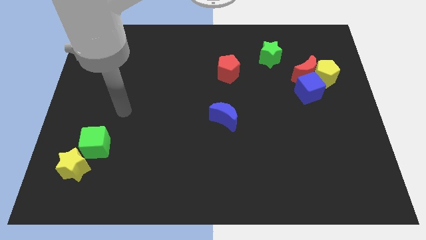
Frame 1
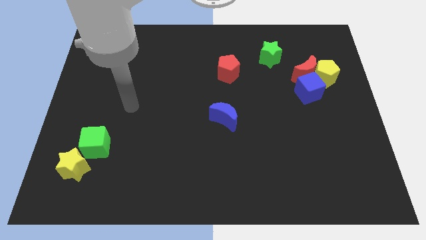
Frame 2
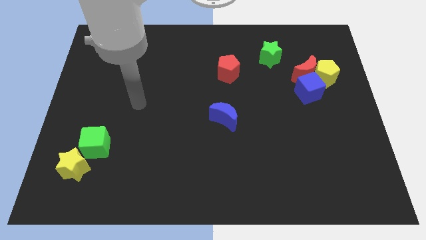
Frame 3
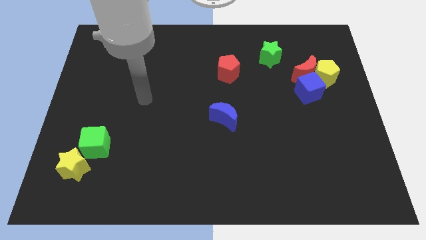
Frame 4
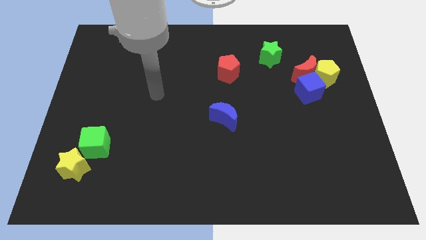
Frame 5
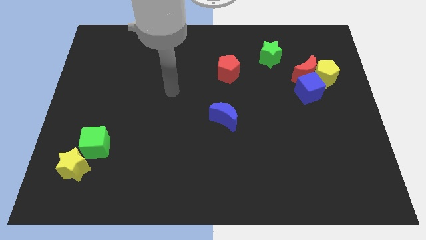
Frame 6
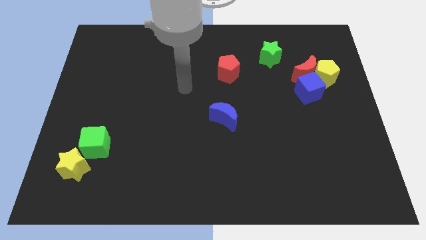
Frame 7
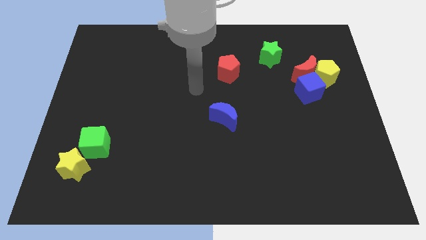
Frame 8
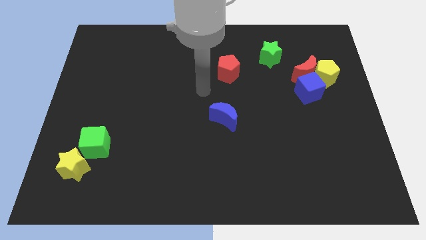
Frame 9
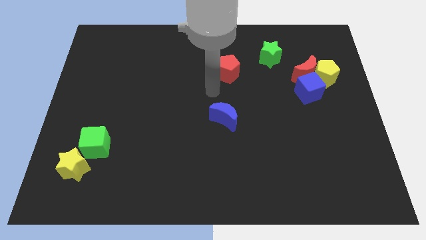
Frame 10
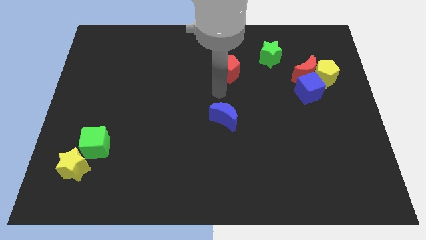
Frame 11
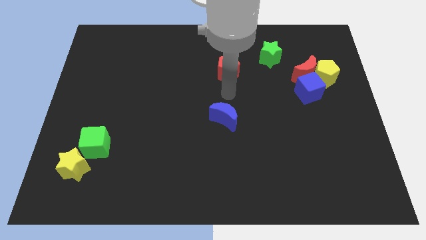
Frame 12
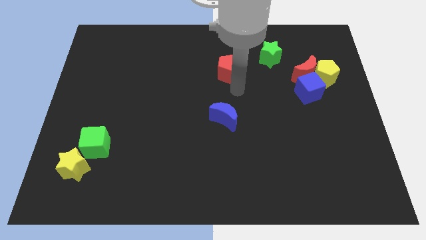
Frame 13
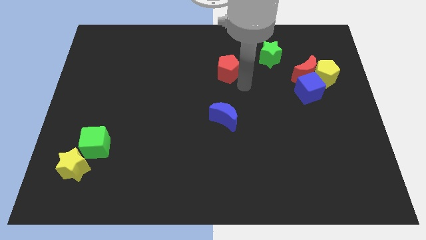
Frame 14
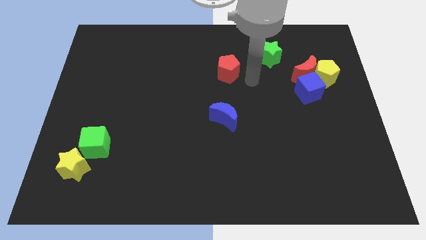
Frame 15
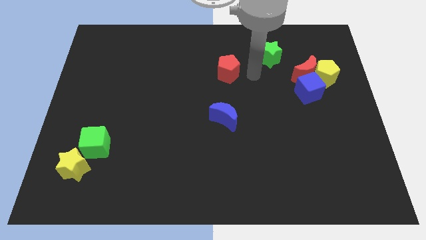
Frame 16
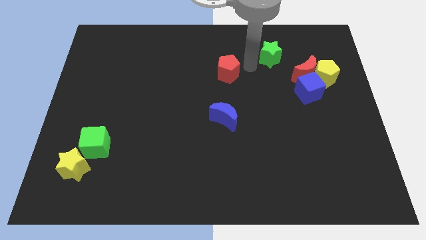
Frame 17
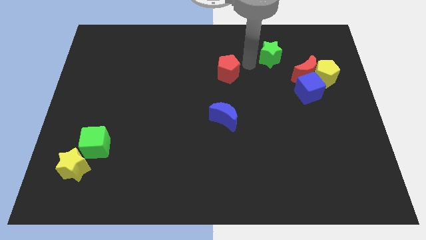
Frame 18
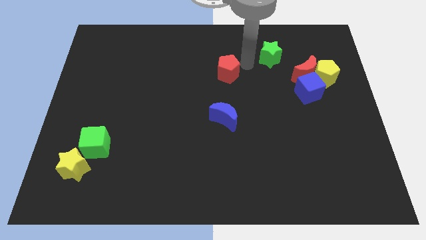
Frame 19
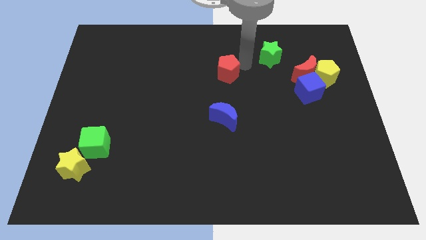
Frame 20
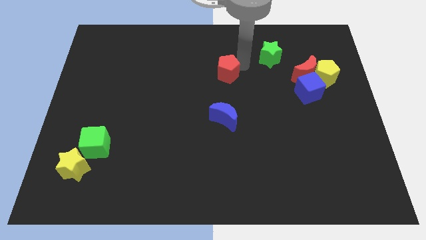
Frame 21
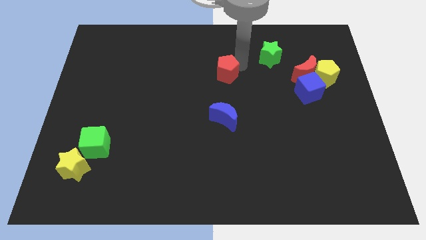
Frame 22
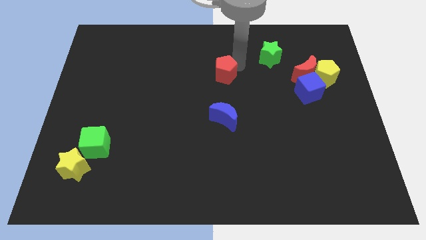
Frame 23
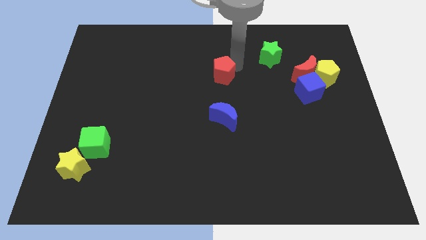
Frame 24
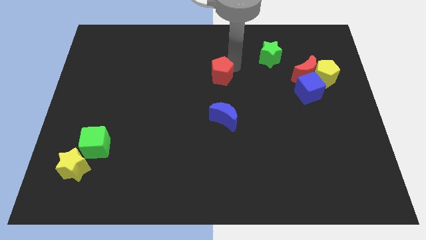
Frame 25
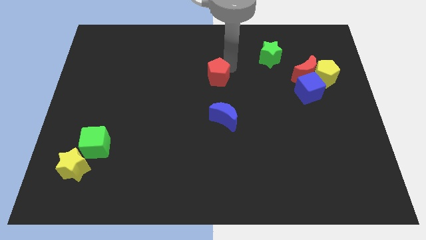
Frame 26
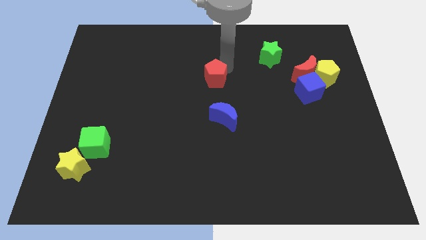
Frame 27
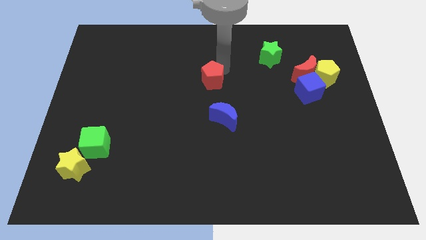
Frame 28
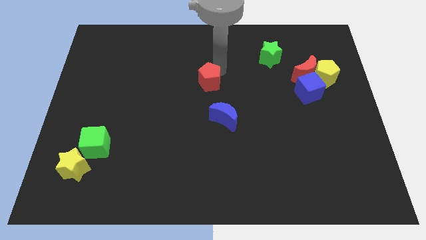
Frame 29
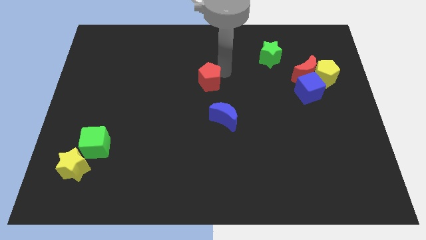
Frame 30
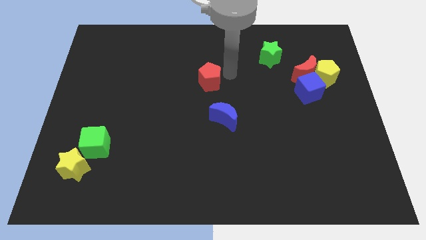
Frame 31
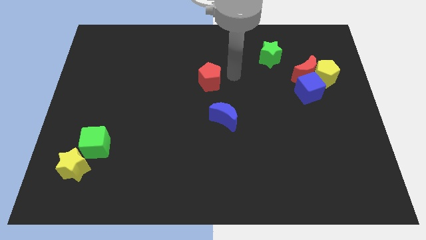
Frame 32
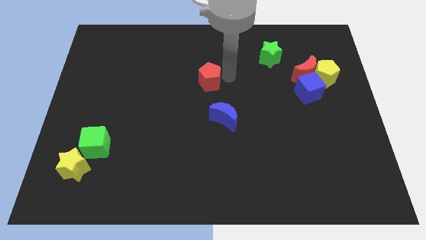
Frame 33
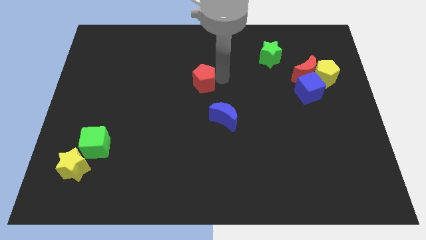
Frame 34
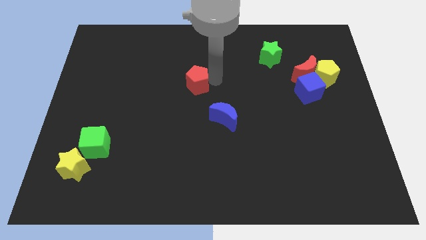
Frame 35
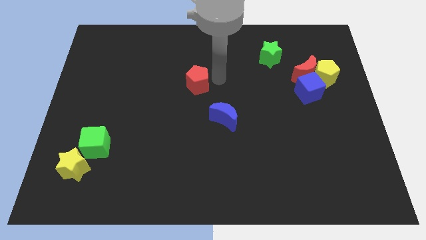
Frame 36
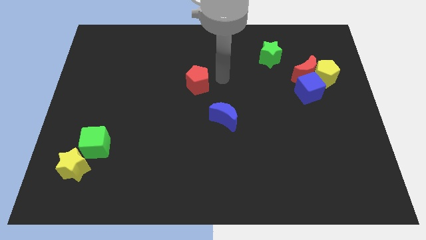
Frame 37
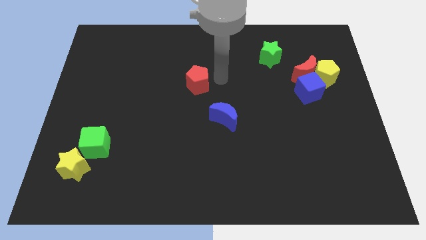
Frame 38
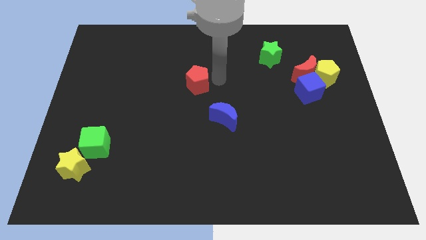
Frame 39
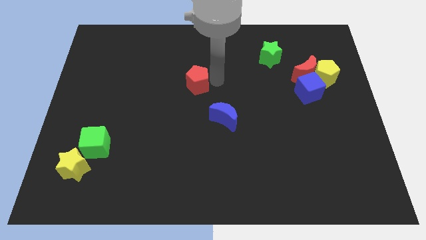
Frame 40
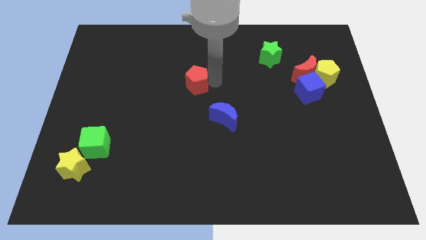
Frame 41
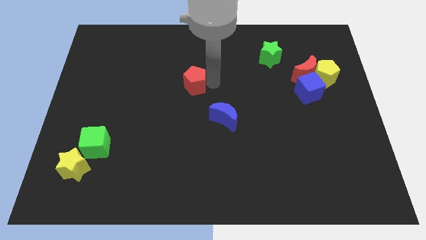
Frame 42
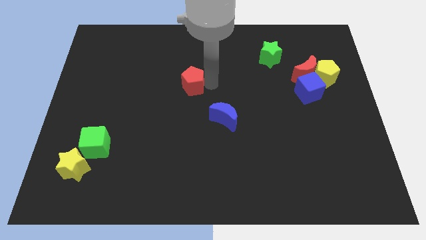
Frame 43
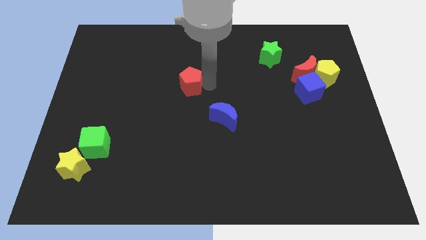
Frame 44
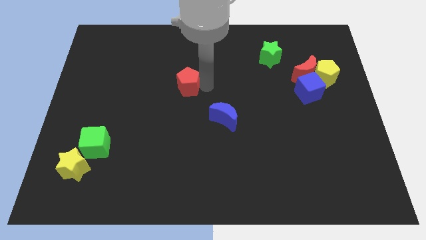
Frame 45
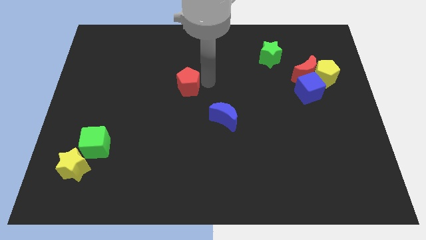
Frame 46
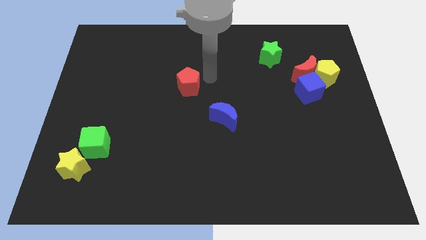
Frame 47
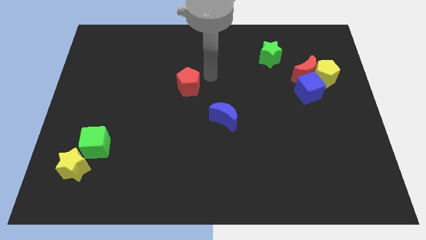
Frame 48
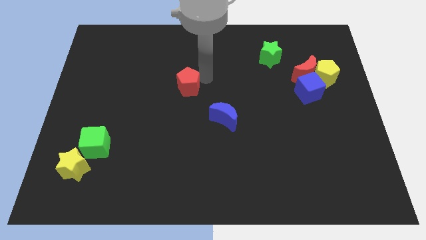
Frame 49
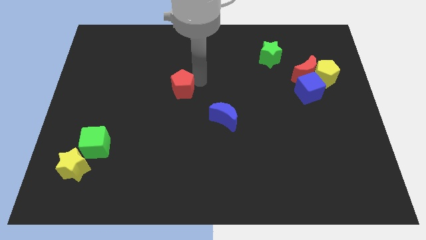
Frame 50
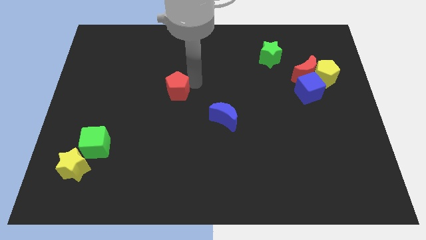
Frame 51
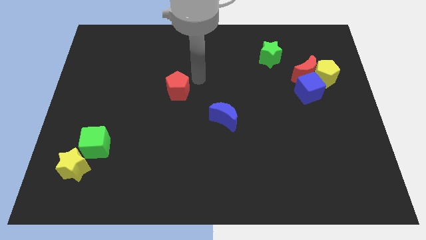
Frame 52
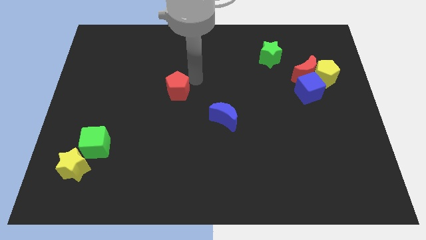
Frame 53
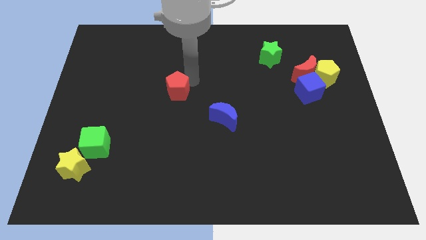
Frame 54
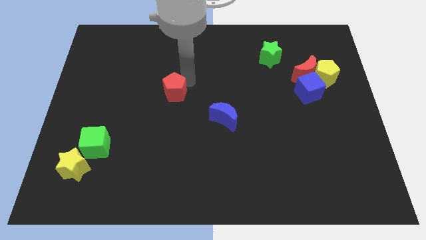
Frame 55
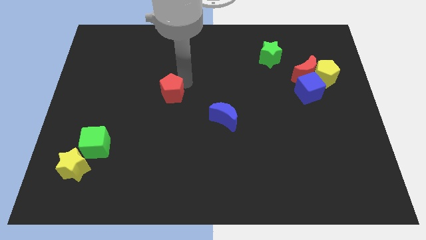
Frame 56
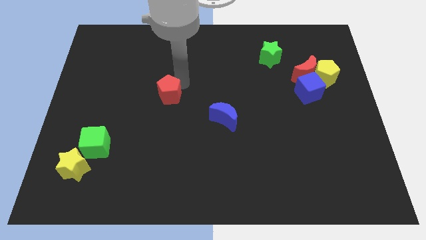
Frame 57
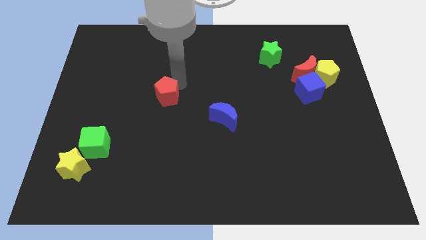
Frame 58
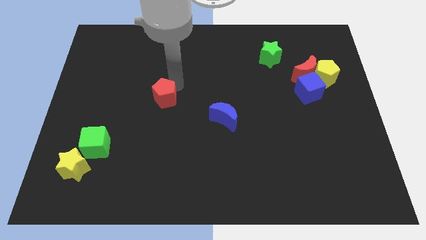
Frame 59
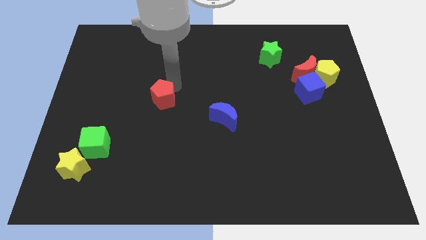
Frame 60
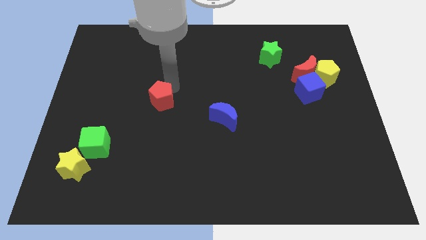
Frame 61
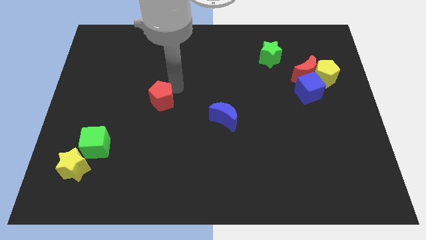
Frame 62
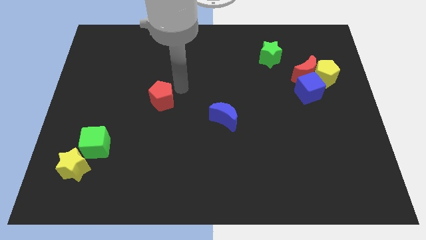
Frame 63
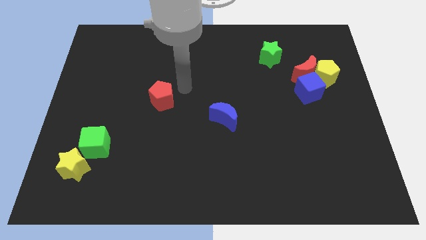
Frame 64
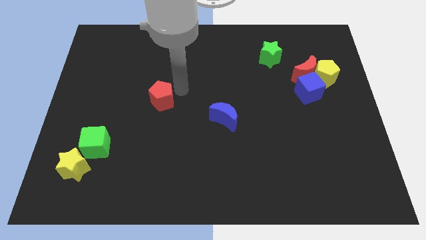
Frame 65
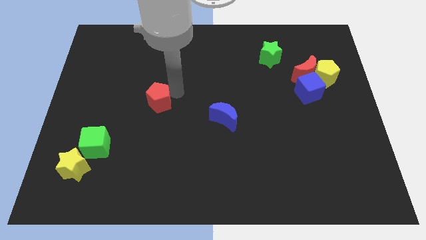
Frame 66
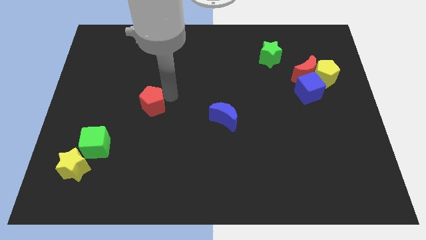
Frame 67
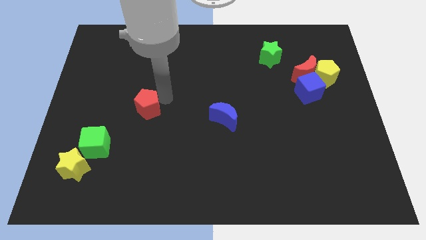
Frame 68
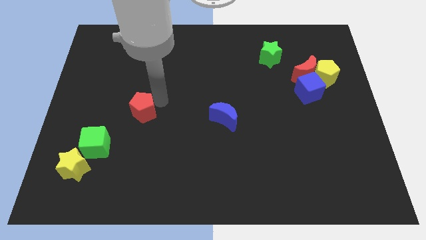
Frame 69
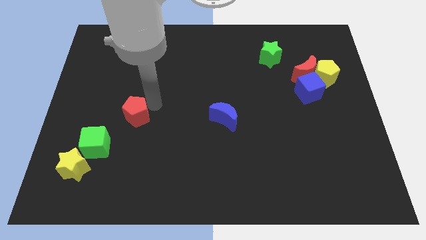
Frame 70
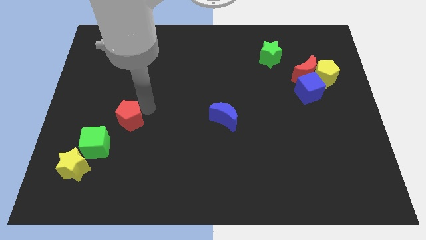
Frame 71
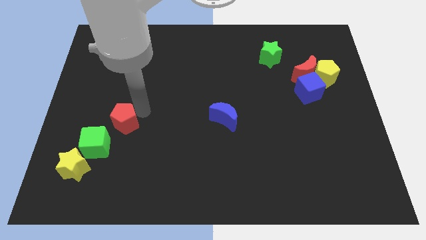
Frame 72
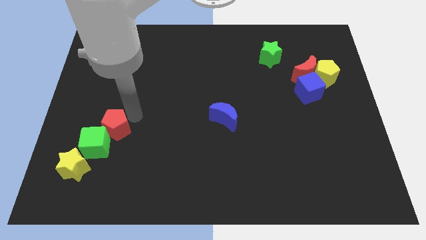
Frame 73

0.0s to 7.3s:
slide the red pentagon next to the green cube
